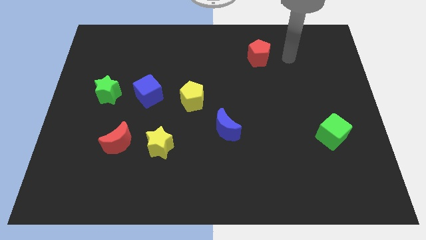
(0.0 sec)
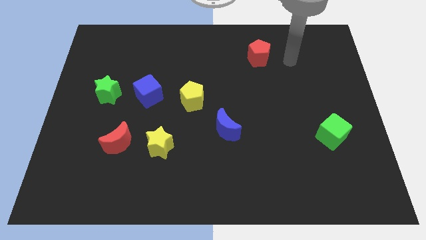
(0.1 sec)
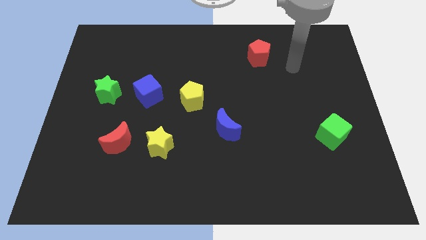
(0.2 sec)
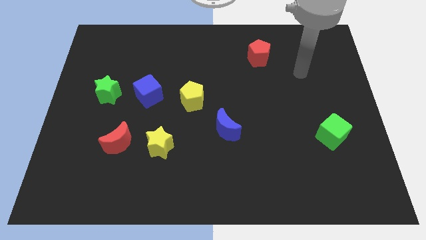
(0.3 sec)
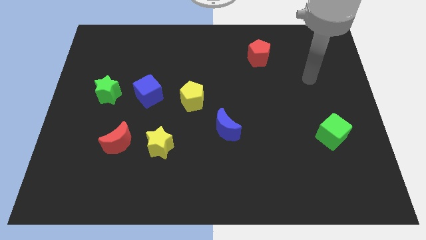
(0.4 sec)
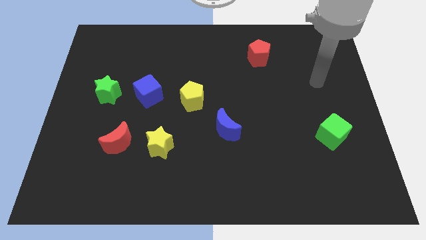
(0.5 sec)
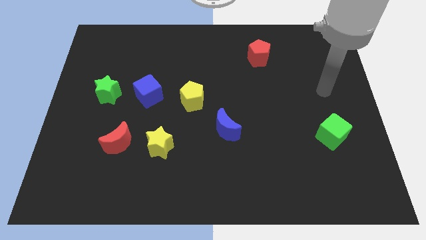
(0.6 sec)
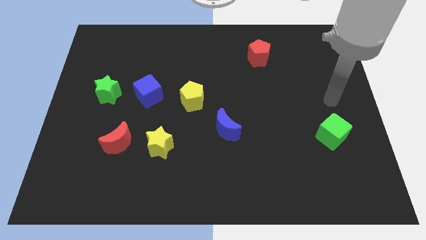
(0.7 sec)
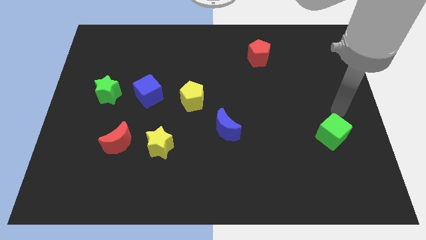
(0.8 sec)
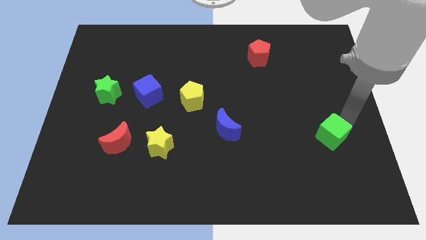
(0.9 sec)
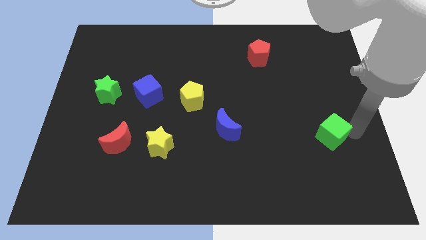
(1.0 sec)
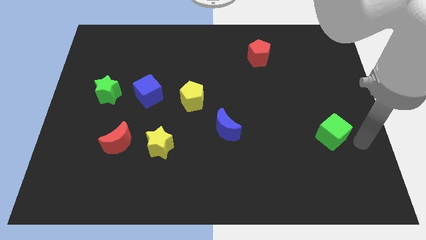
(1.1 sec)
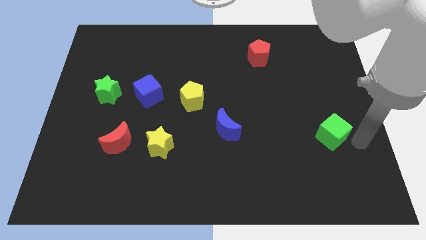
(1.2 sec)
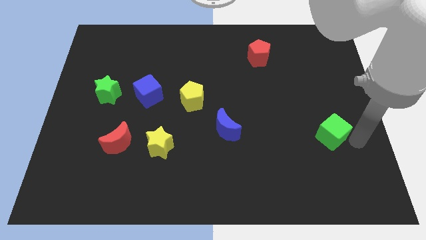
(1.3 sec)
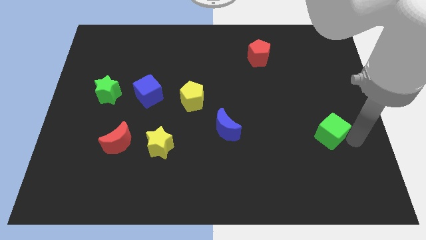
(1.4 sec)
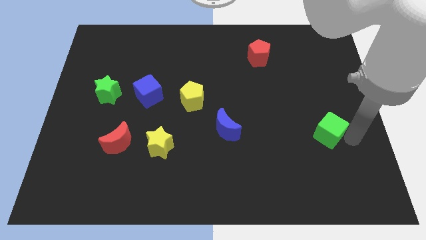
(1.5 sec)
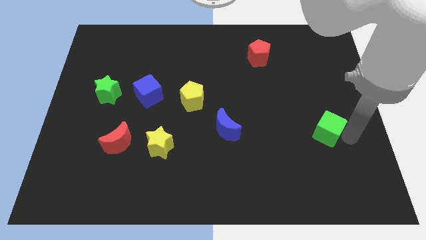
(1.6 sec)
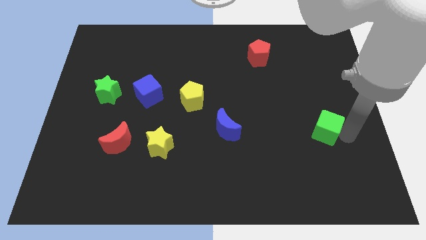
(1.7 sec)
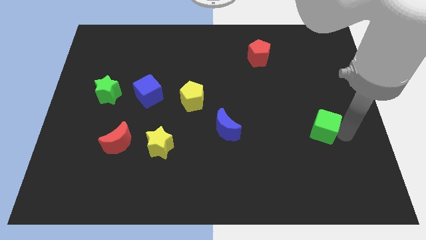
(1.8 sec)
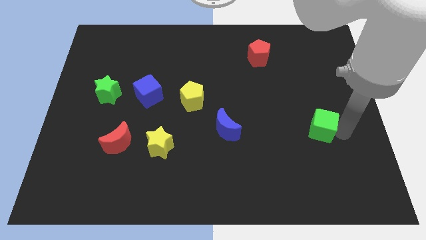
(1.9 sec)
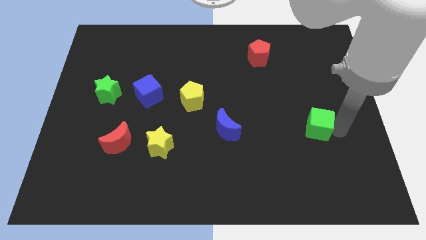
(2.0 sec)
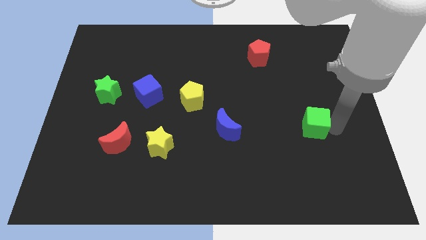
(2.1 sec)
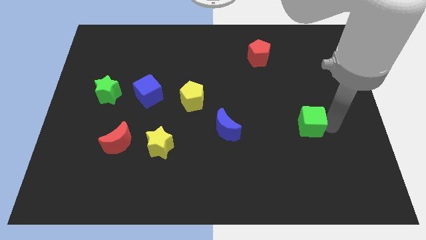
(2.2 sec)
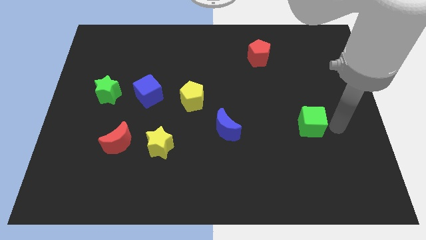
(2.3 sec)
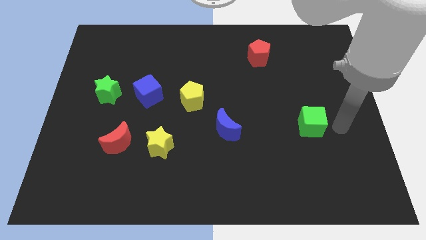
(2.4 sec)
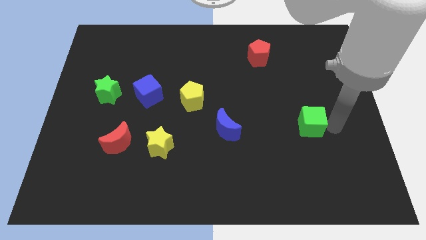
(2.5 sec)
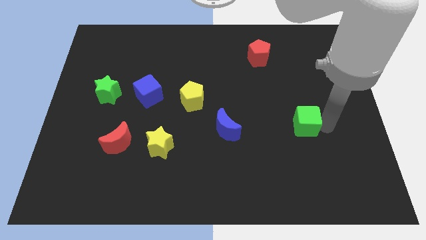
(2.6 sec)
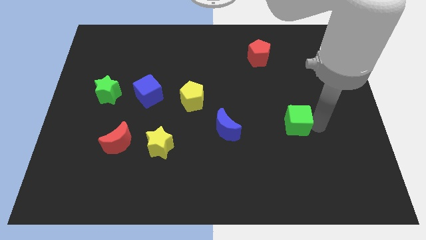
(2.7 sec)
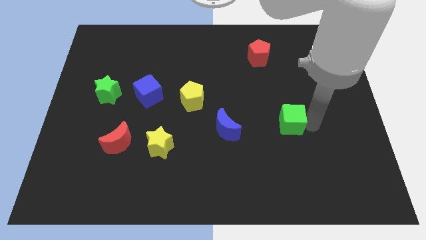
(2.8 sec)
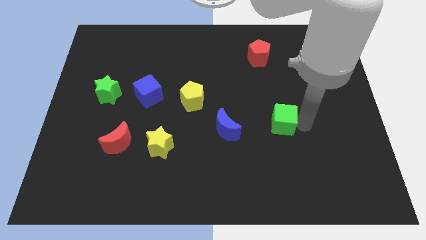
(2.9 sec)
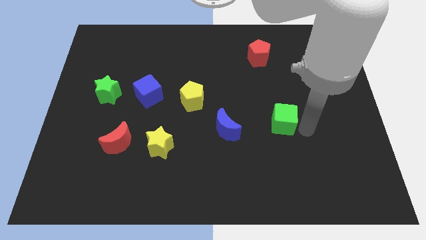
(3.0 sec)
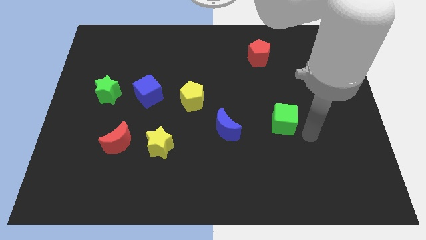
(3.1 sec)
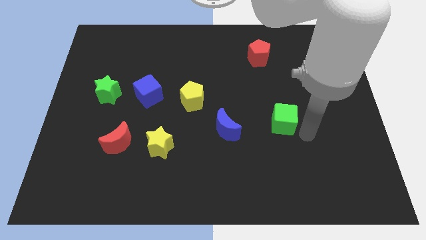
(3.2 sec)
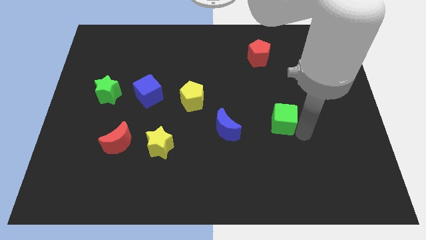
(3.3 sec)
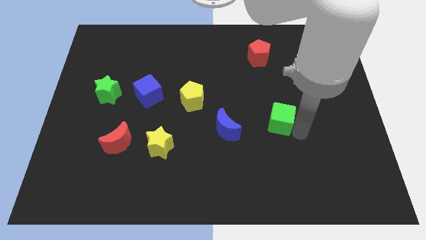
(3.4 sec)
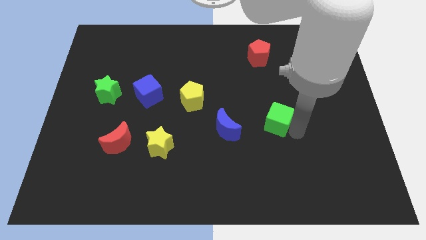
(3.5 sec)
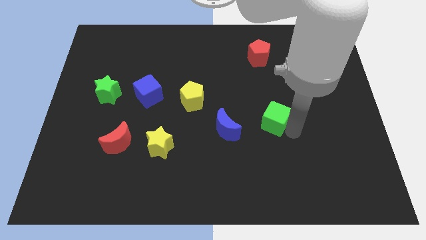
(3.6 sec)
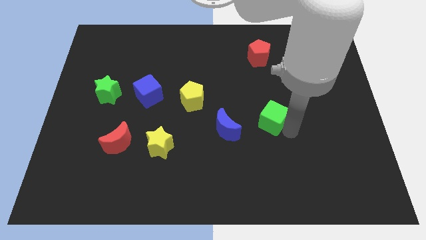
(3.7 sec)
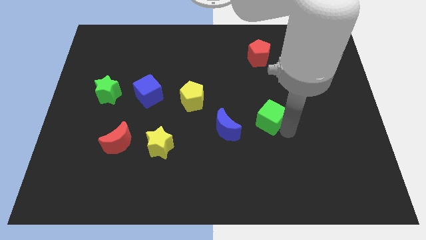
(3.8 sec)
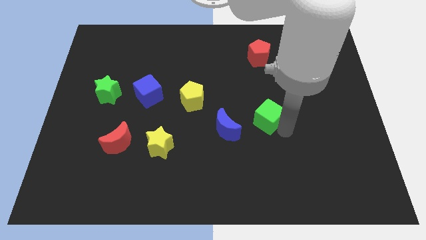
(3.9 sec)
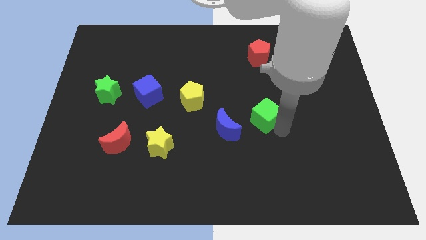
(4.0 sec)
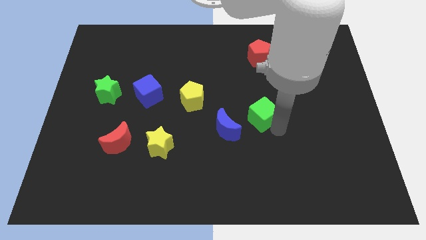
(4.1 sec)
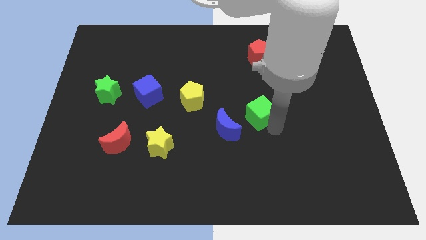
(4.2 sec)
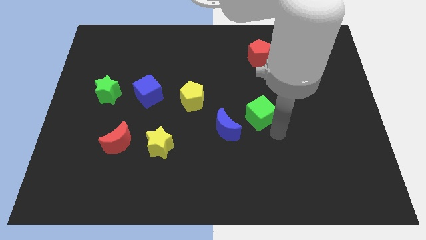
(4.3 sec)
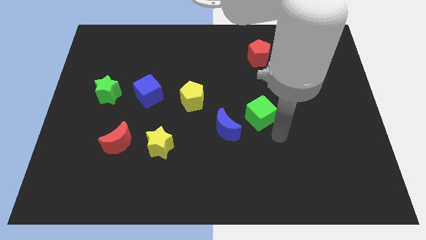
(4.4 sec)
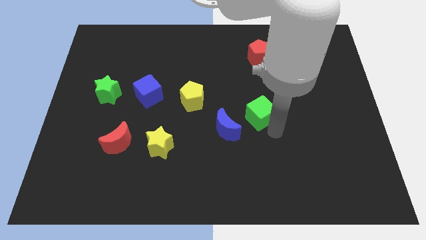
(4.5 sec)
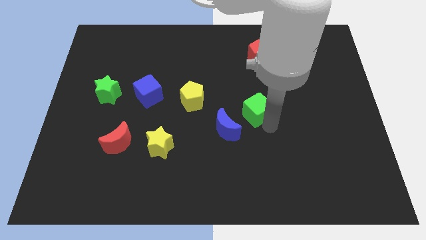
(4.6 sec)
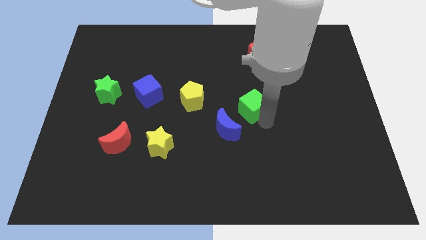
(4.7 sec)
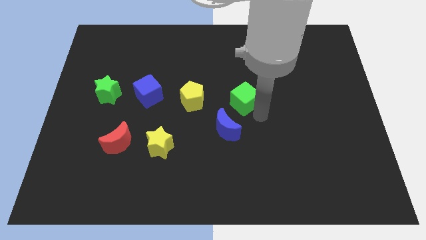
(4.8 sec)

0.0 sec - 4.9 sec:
slide the green cube above the blue moon

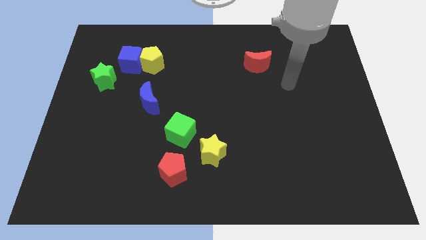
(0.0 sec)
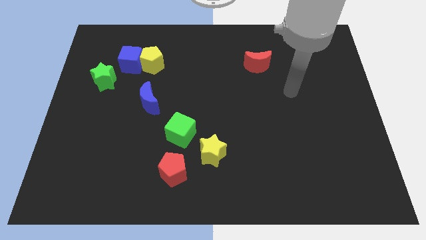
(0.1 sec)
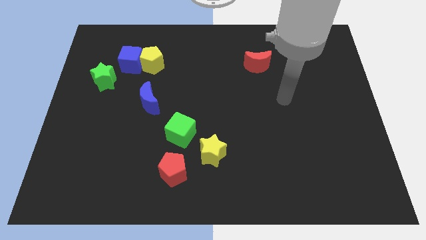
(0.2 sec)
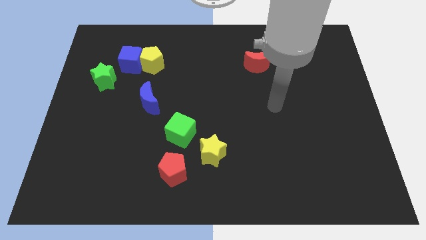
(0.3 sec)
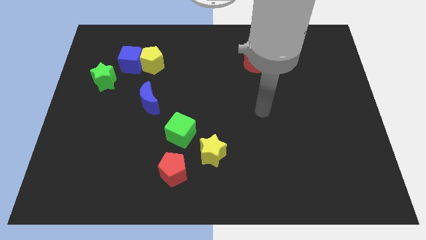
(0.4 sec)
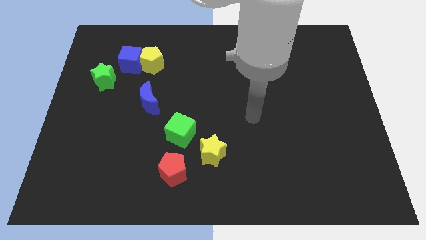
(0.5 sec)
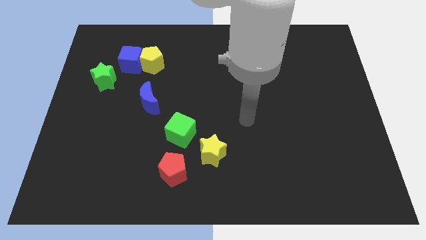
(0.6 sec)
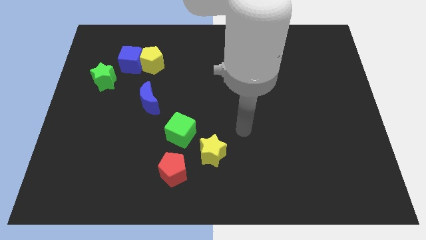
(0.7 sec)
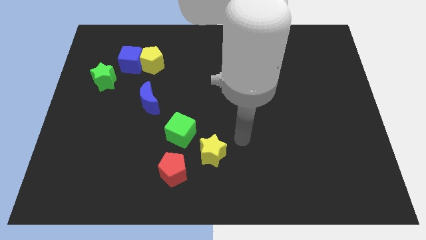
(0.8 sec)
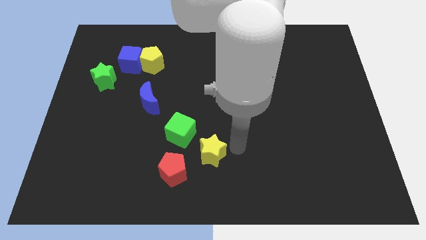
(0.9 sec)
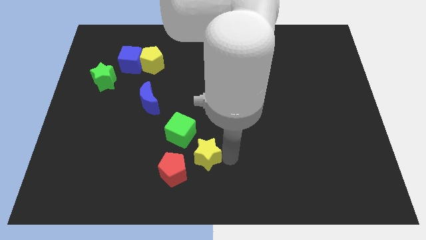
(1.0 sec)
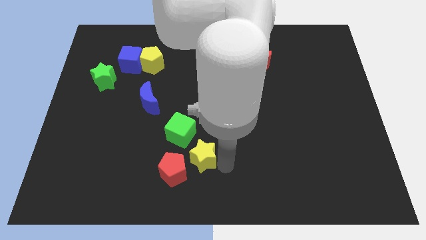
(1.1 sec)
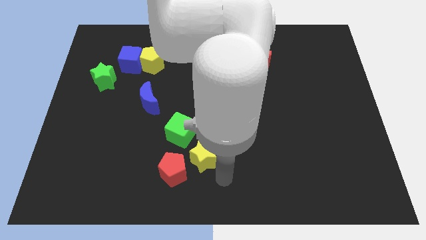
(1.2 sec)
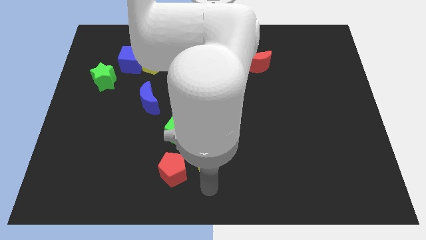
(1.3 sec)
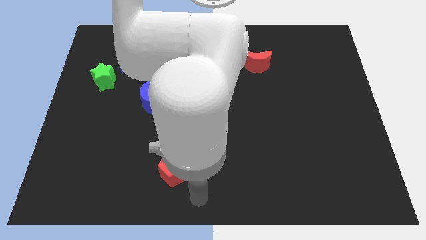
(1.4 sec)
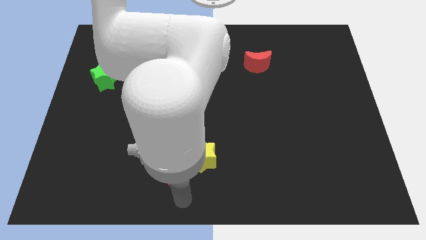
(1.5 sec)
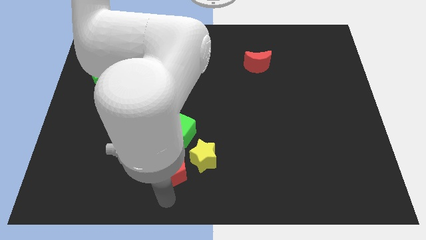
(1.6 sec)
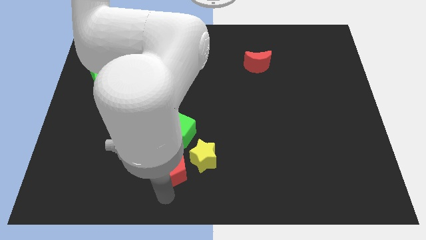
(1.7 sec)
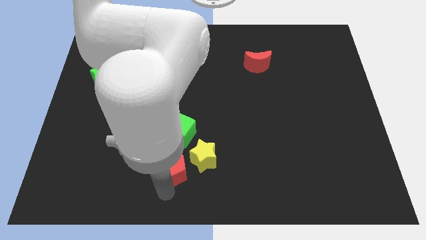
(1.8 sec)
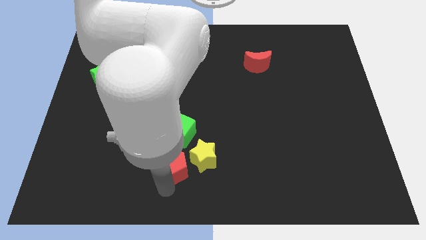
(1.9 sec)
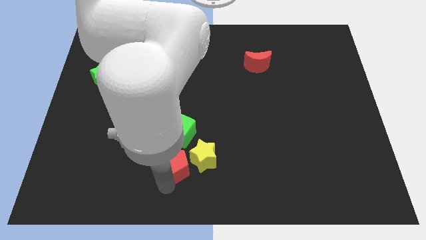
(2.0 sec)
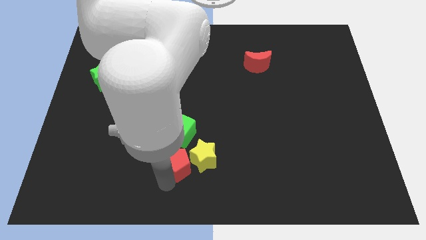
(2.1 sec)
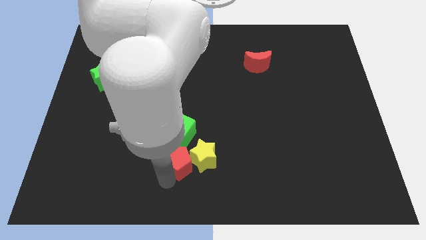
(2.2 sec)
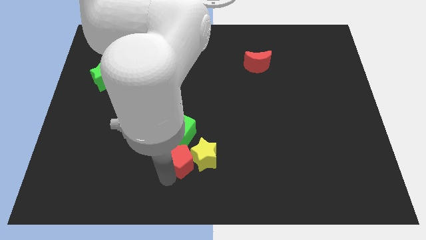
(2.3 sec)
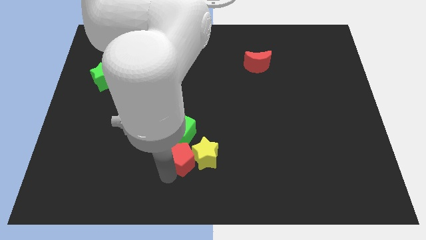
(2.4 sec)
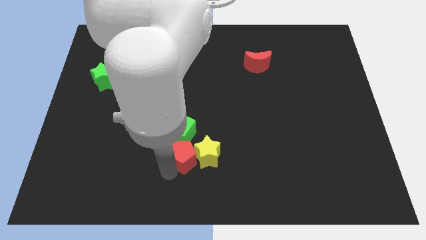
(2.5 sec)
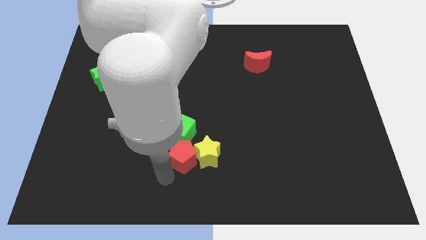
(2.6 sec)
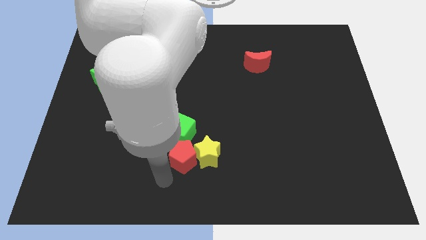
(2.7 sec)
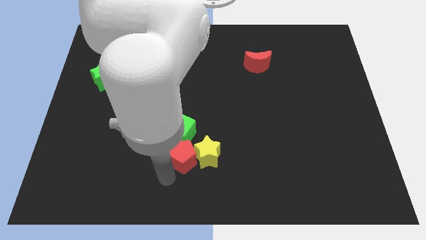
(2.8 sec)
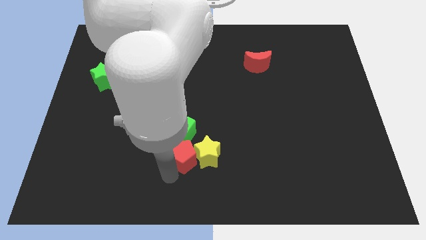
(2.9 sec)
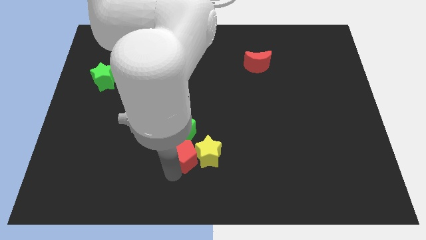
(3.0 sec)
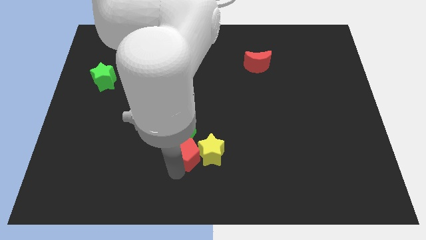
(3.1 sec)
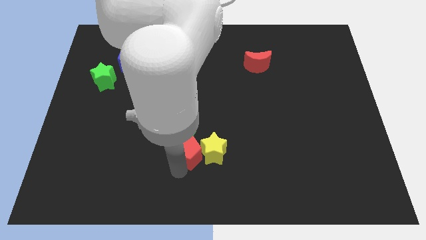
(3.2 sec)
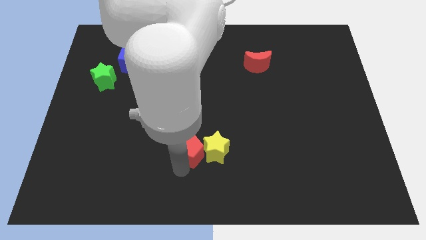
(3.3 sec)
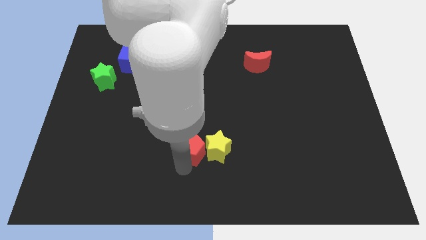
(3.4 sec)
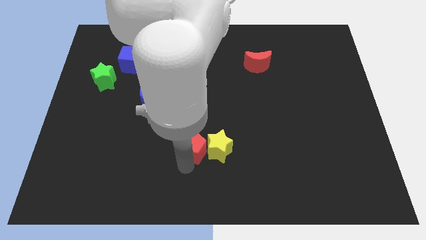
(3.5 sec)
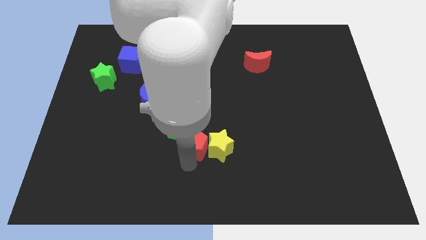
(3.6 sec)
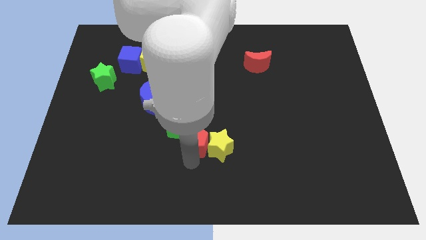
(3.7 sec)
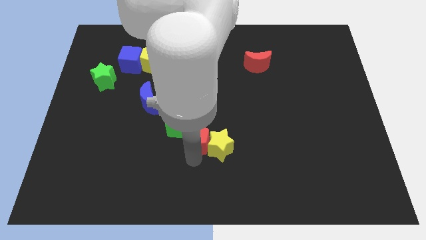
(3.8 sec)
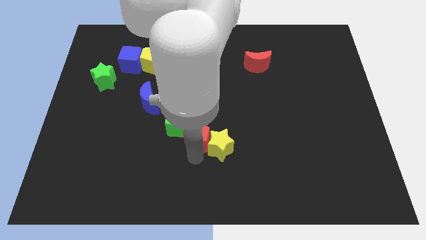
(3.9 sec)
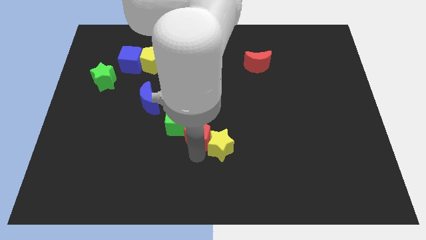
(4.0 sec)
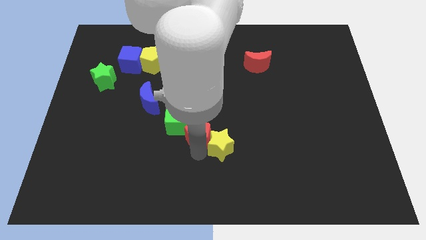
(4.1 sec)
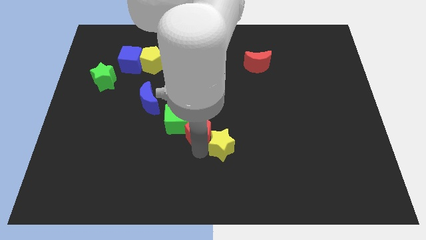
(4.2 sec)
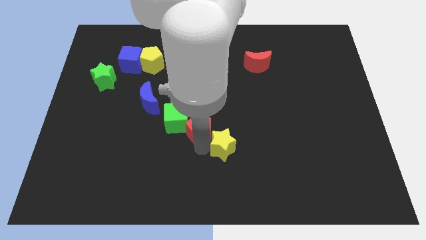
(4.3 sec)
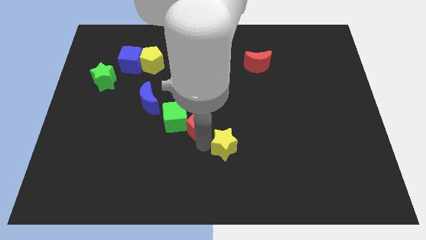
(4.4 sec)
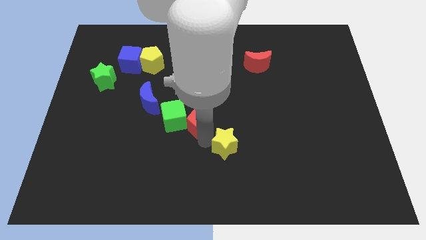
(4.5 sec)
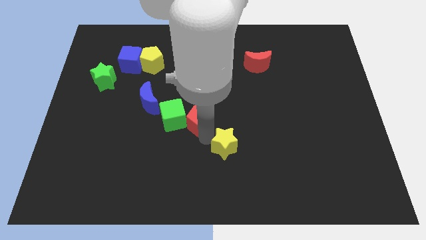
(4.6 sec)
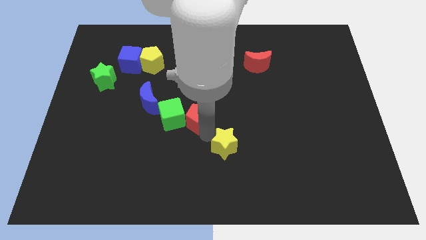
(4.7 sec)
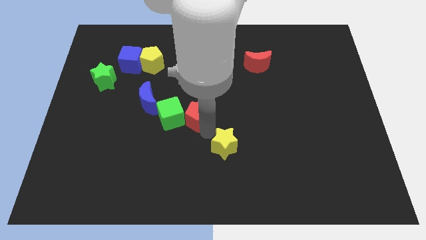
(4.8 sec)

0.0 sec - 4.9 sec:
move the red pentagon to the right of the blue moon
